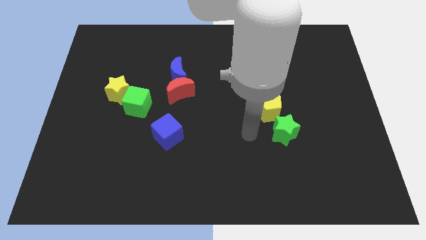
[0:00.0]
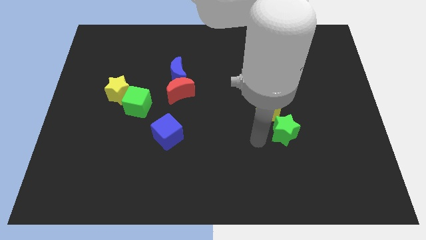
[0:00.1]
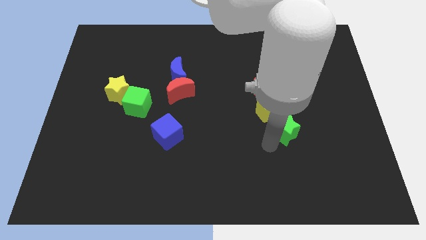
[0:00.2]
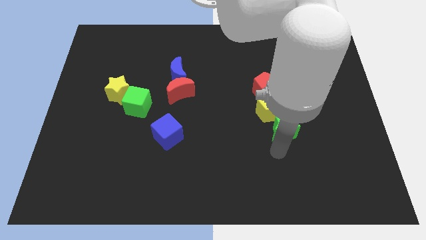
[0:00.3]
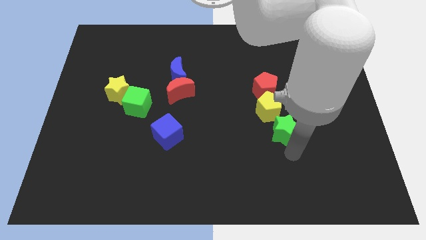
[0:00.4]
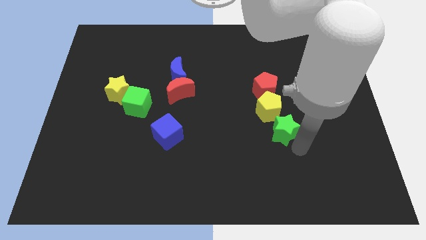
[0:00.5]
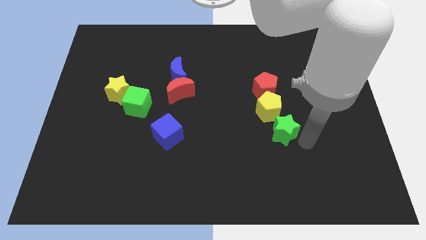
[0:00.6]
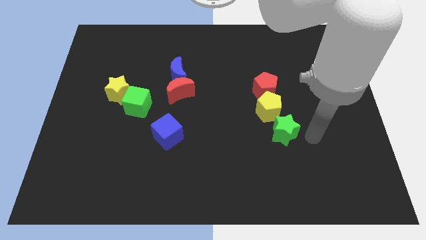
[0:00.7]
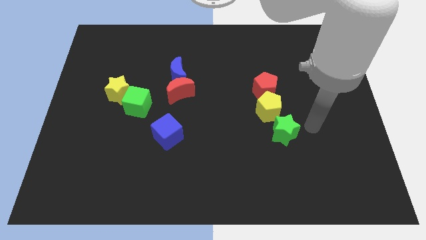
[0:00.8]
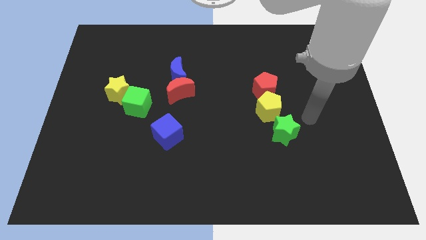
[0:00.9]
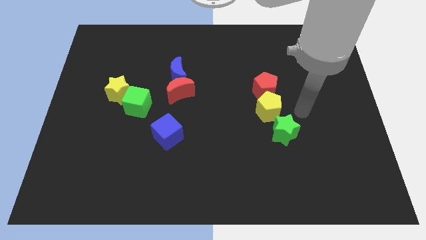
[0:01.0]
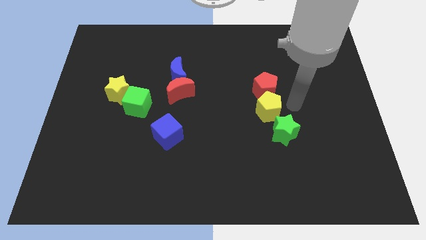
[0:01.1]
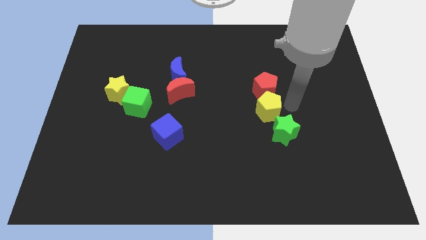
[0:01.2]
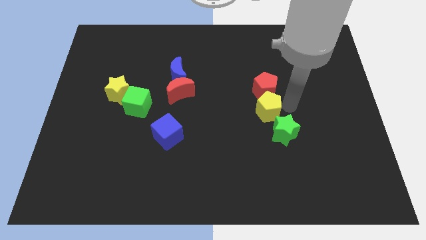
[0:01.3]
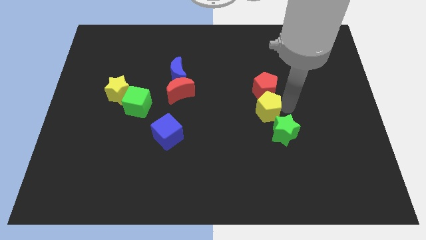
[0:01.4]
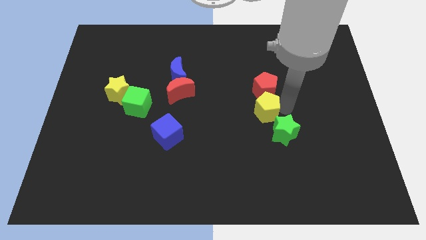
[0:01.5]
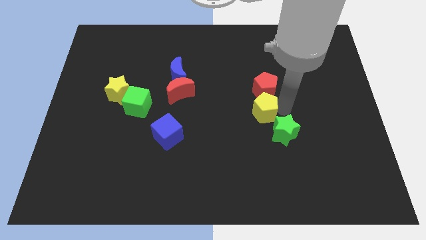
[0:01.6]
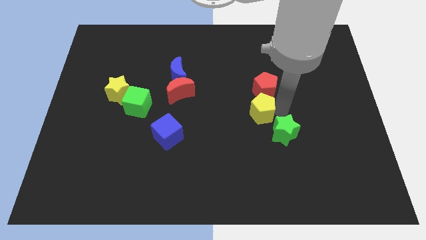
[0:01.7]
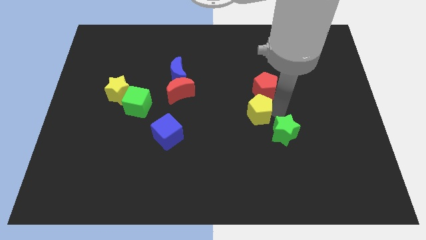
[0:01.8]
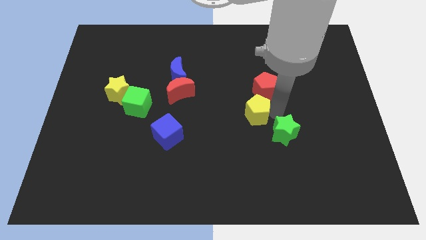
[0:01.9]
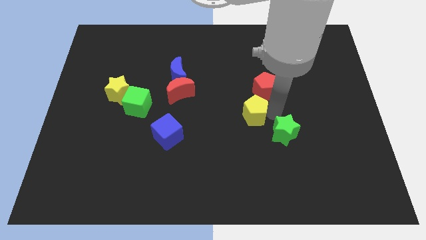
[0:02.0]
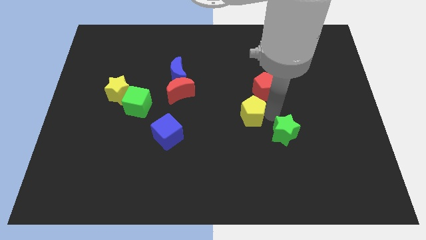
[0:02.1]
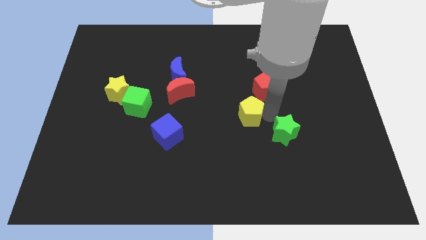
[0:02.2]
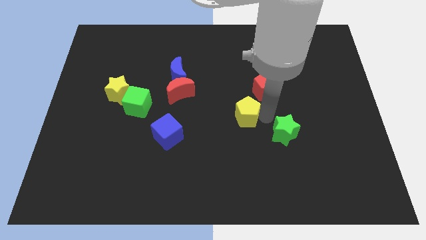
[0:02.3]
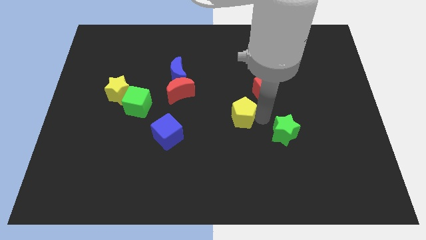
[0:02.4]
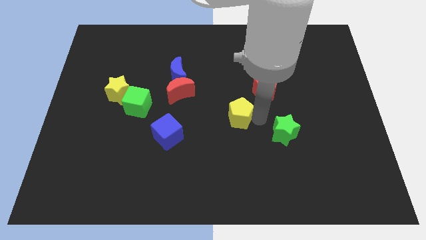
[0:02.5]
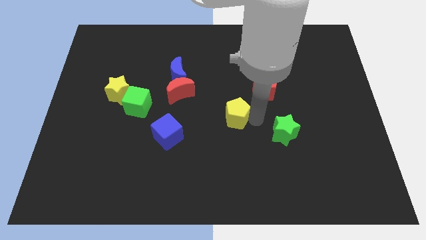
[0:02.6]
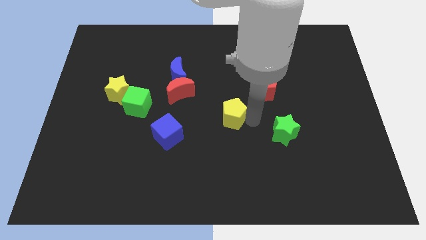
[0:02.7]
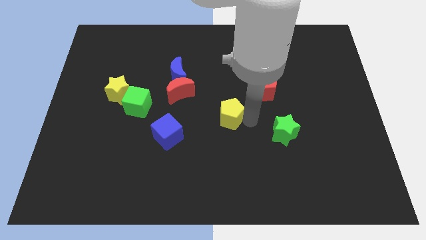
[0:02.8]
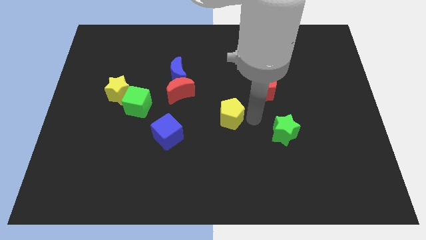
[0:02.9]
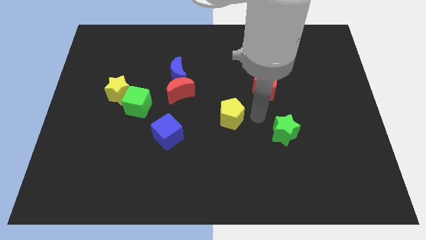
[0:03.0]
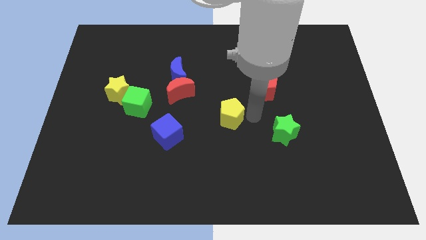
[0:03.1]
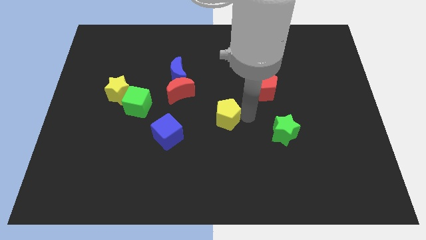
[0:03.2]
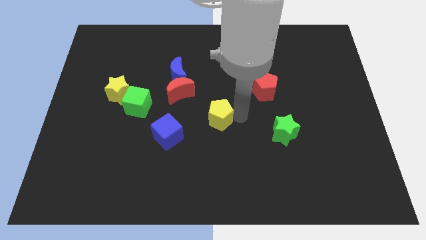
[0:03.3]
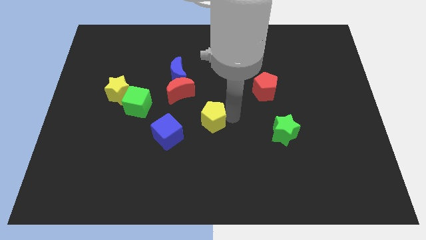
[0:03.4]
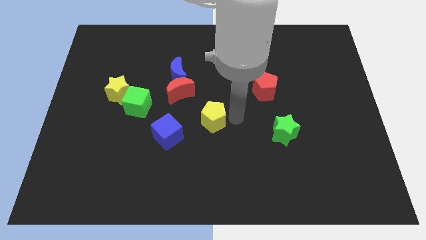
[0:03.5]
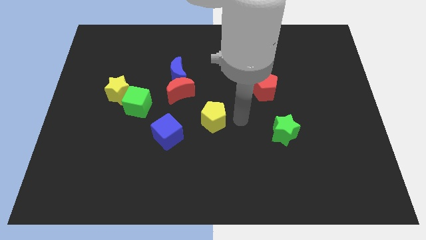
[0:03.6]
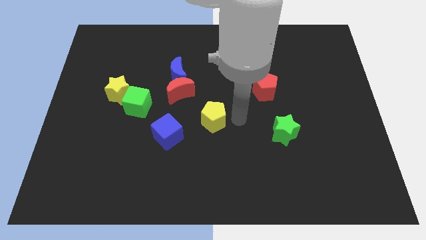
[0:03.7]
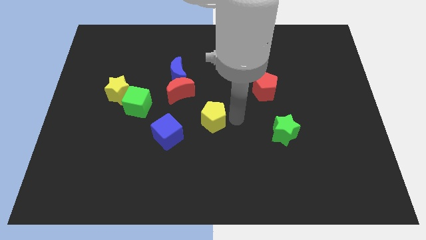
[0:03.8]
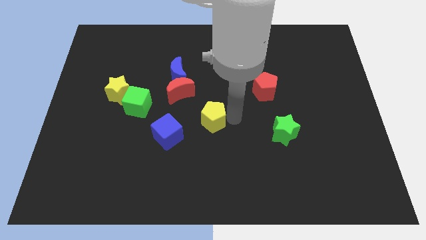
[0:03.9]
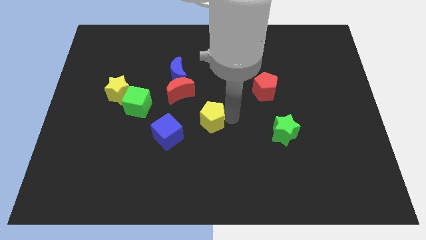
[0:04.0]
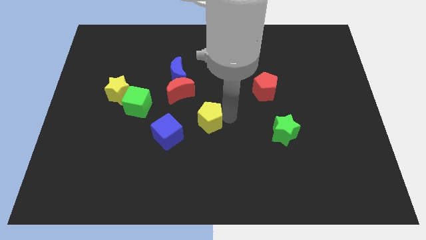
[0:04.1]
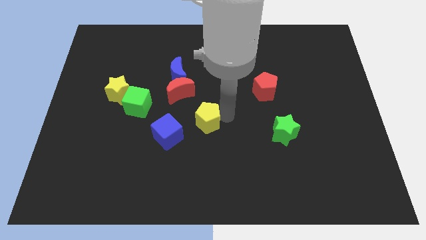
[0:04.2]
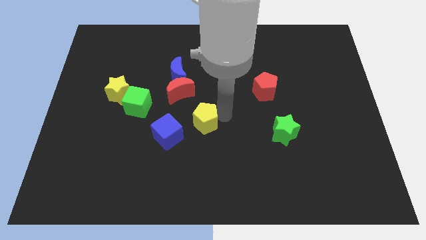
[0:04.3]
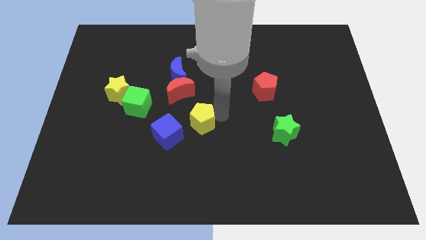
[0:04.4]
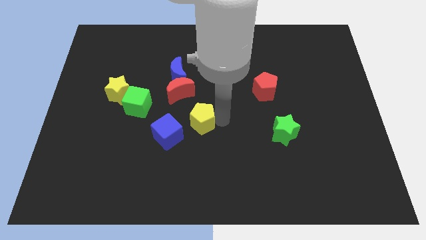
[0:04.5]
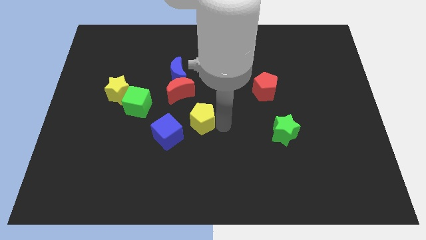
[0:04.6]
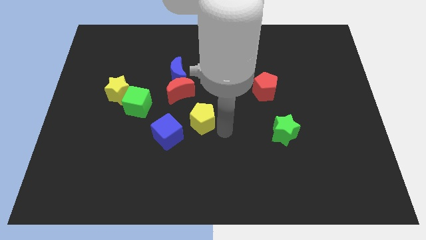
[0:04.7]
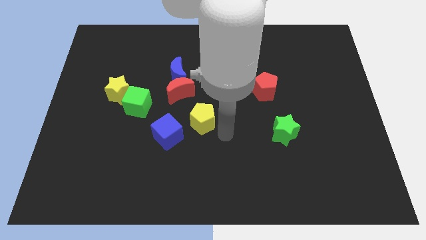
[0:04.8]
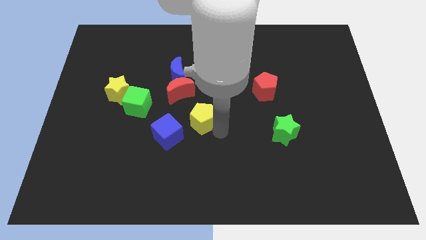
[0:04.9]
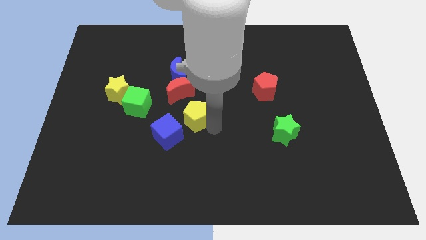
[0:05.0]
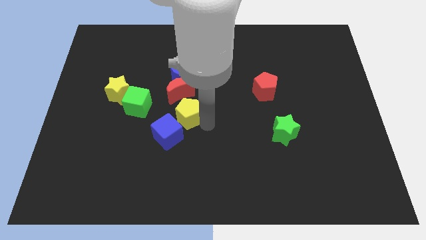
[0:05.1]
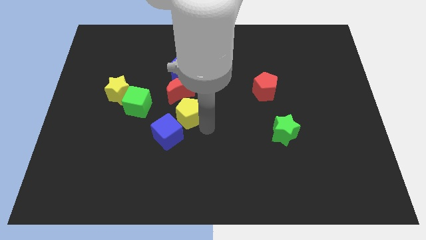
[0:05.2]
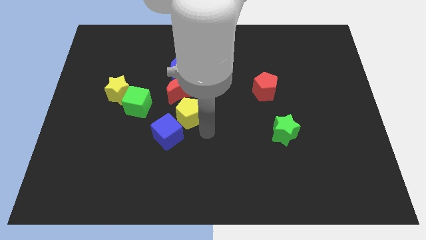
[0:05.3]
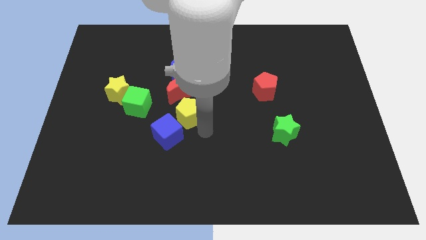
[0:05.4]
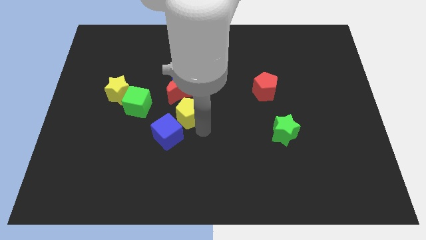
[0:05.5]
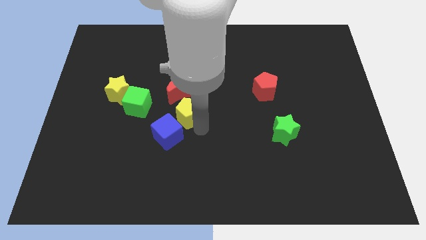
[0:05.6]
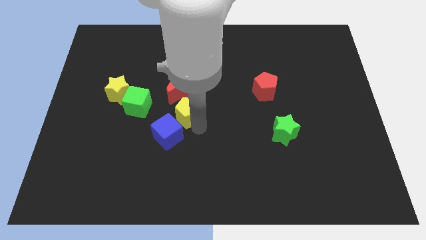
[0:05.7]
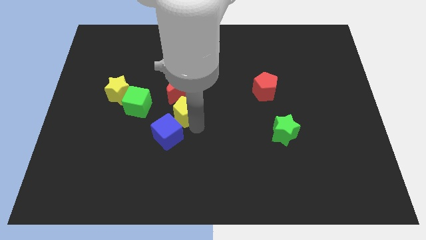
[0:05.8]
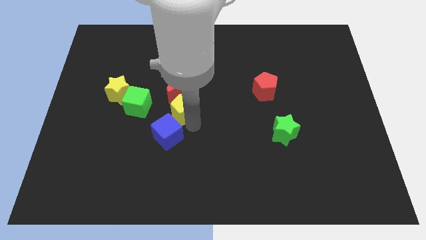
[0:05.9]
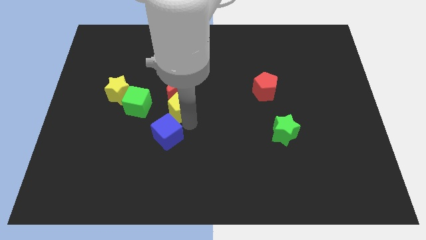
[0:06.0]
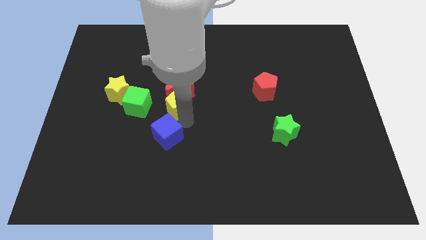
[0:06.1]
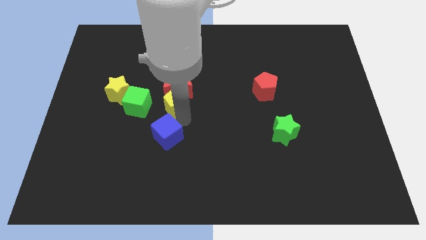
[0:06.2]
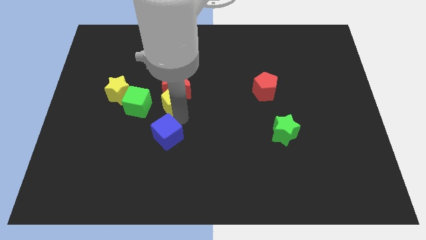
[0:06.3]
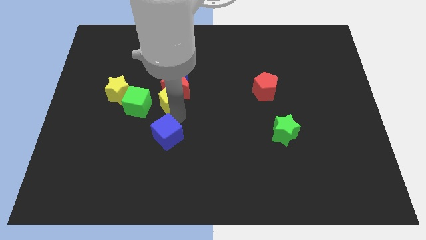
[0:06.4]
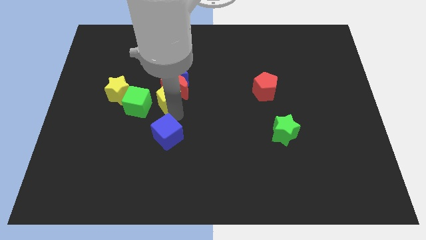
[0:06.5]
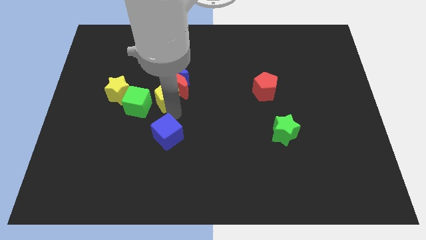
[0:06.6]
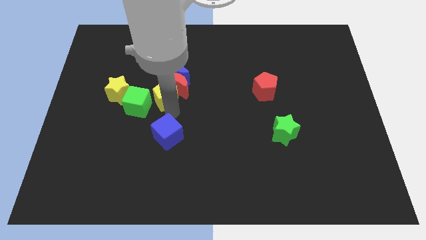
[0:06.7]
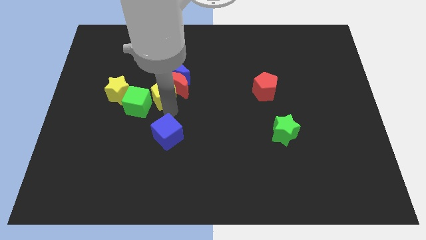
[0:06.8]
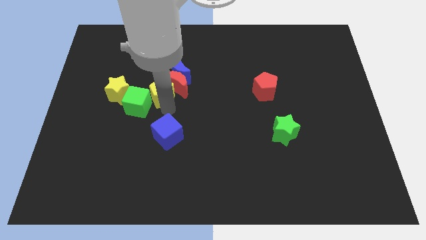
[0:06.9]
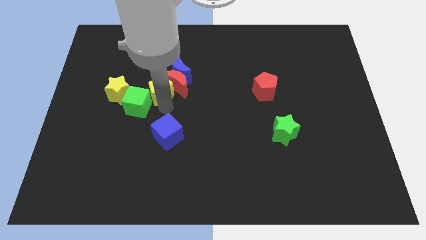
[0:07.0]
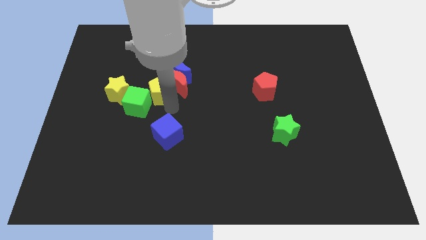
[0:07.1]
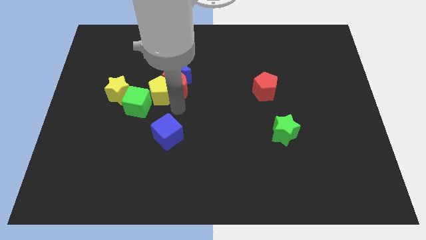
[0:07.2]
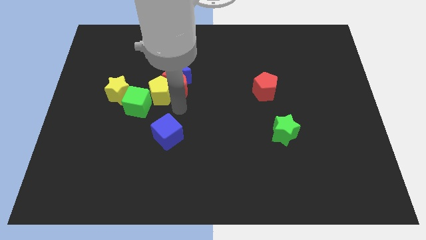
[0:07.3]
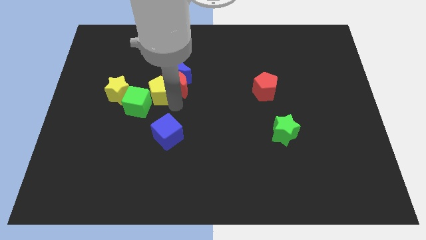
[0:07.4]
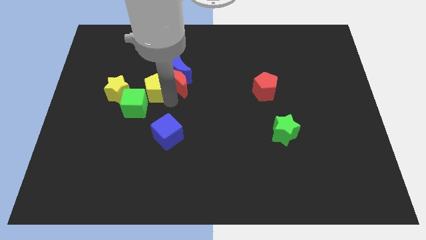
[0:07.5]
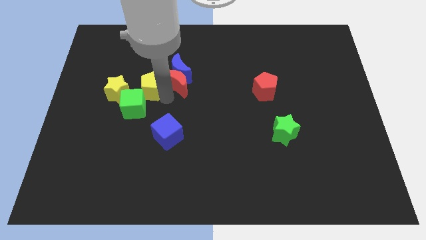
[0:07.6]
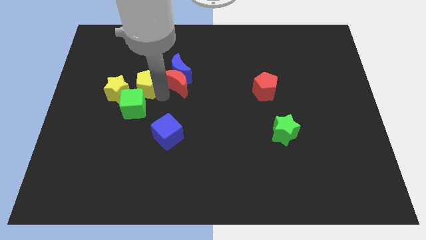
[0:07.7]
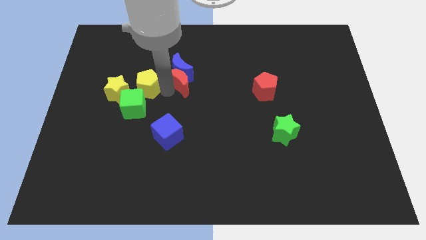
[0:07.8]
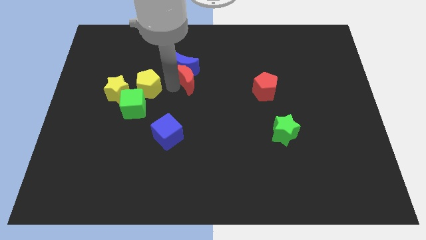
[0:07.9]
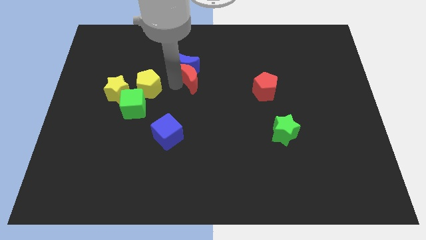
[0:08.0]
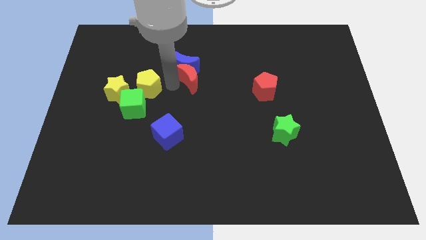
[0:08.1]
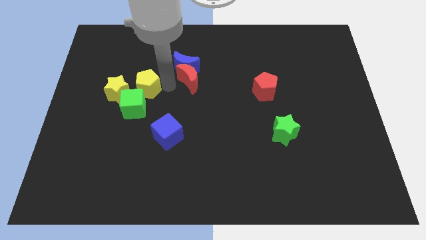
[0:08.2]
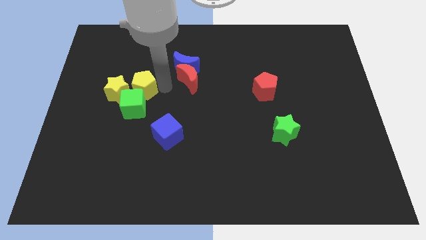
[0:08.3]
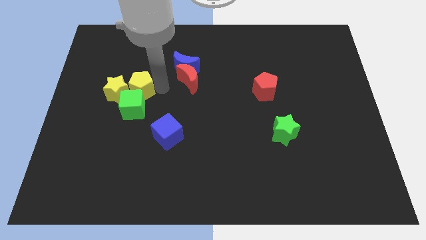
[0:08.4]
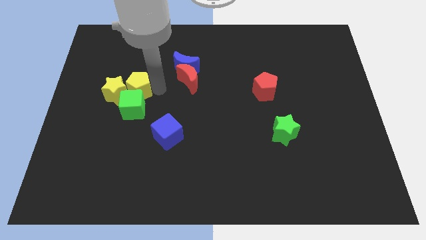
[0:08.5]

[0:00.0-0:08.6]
slide the yellow pentagon to the top left of the green cube
